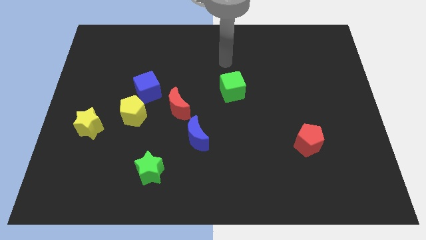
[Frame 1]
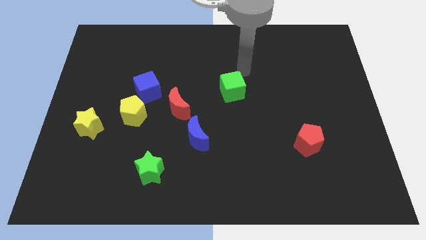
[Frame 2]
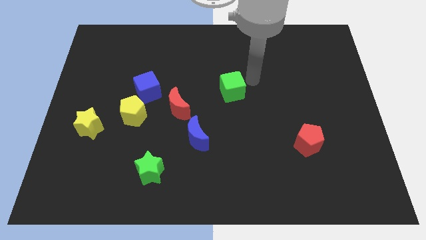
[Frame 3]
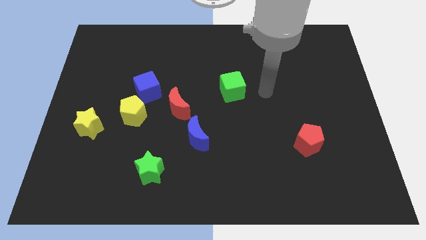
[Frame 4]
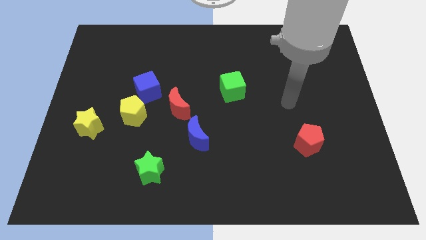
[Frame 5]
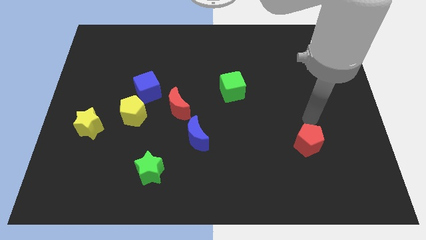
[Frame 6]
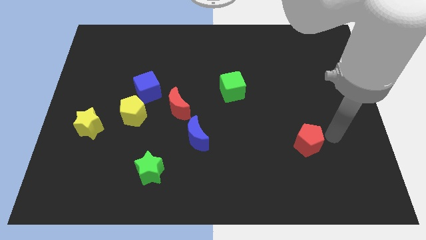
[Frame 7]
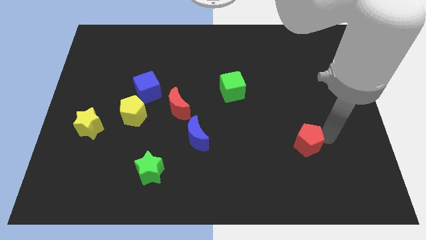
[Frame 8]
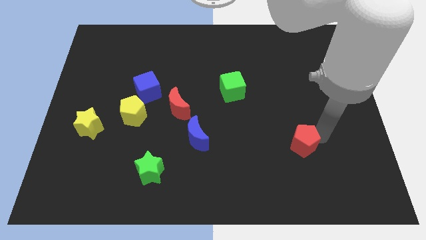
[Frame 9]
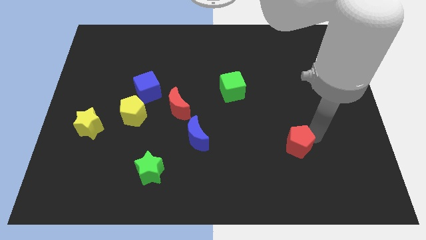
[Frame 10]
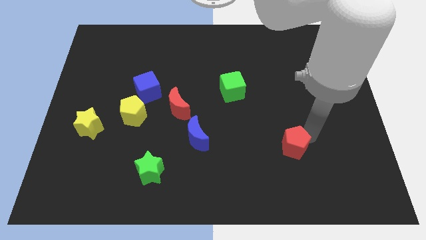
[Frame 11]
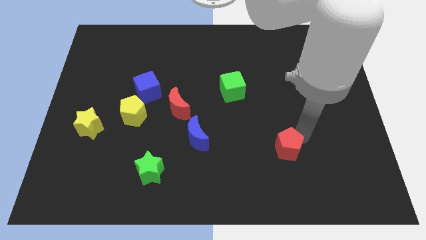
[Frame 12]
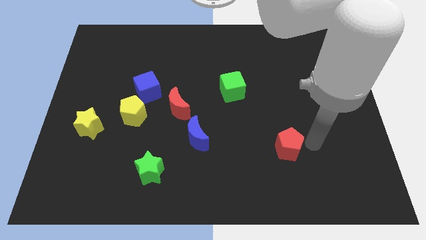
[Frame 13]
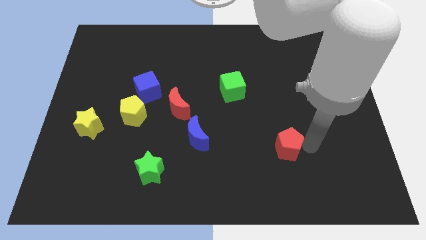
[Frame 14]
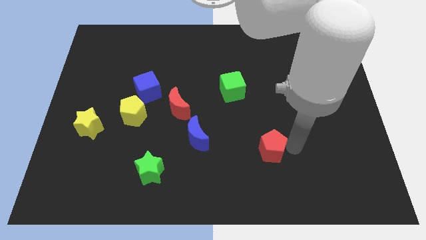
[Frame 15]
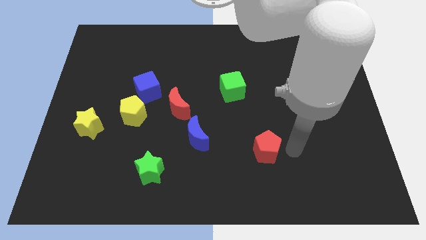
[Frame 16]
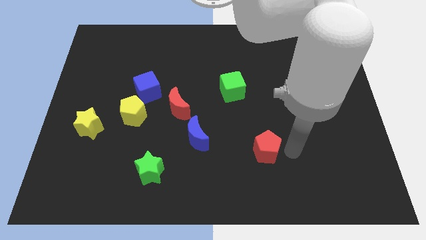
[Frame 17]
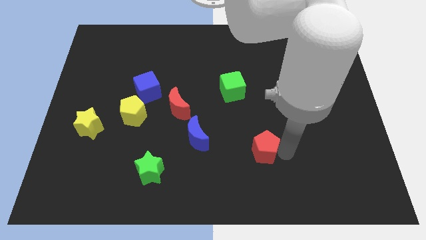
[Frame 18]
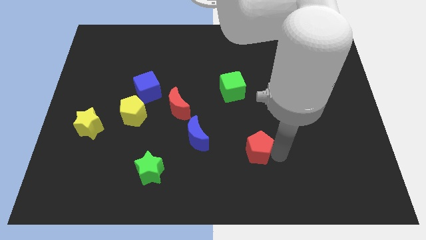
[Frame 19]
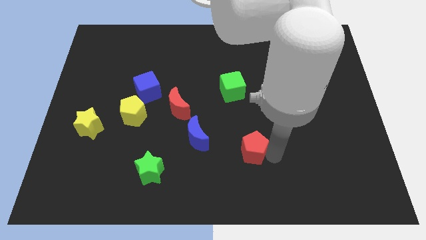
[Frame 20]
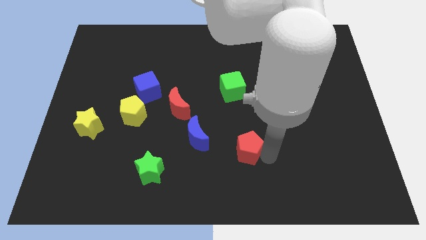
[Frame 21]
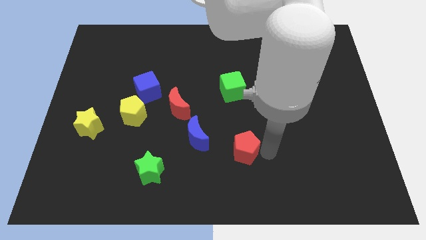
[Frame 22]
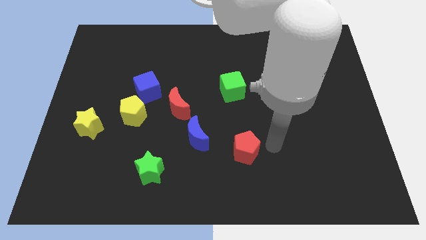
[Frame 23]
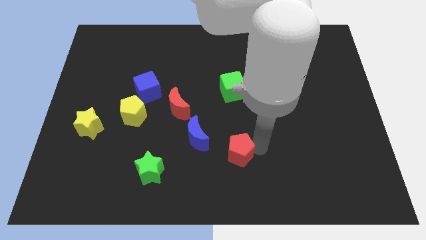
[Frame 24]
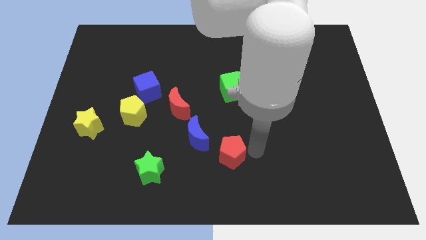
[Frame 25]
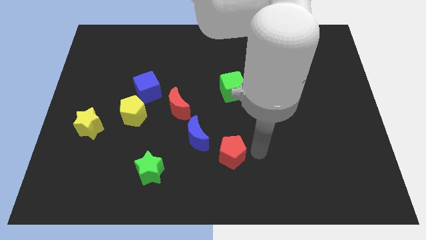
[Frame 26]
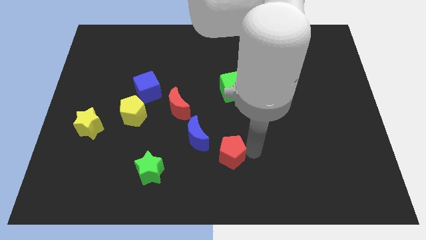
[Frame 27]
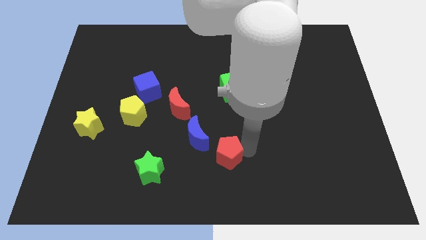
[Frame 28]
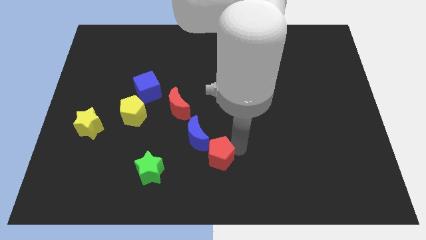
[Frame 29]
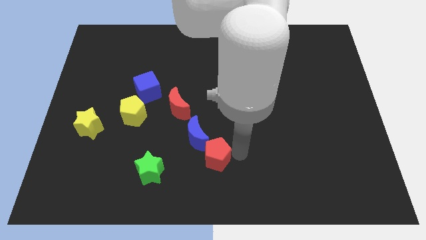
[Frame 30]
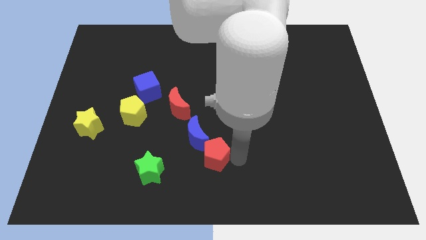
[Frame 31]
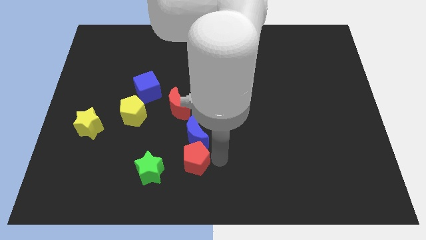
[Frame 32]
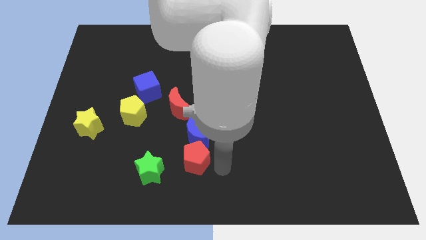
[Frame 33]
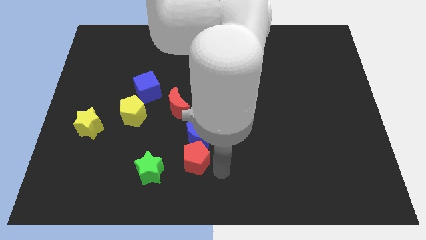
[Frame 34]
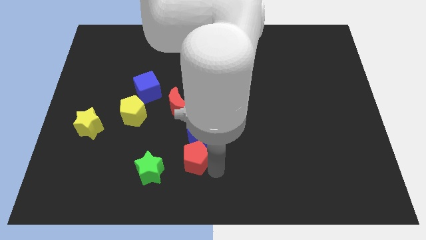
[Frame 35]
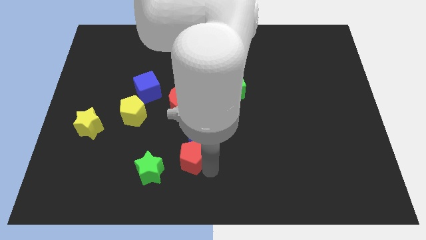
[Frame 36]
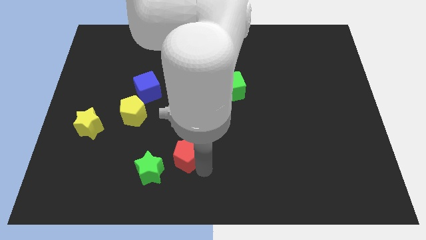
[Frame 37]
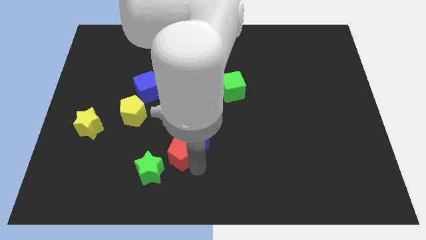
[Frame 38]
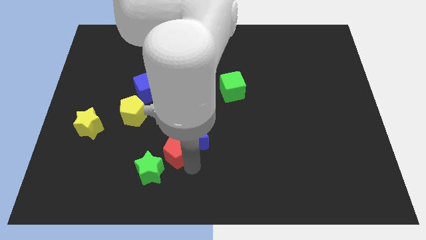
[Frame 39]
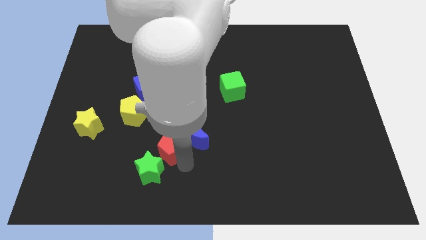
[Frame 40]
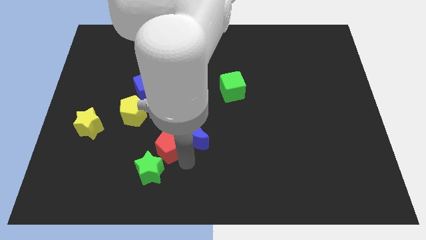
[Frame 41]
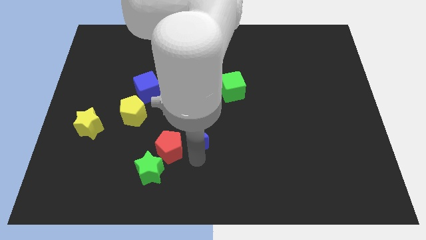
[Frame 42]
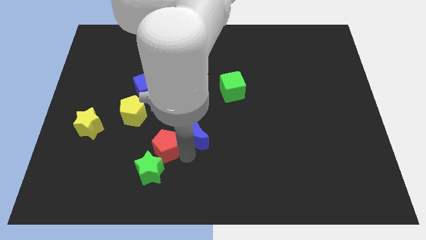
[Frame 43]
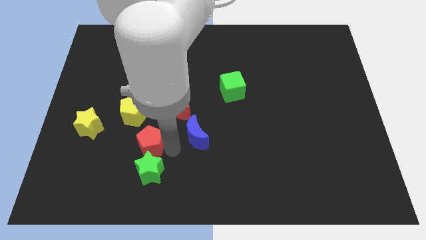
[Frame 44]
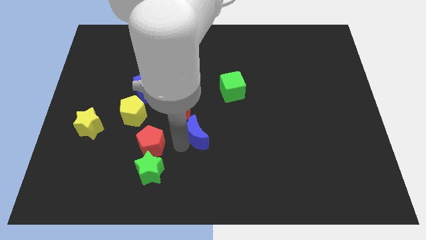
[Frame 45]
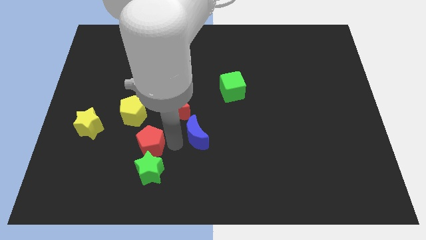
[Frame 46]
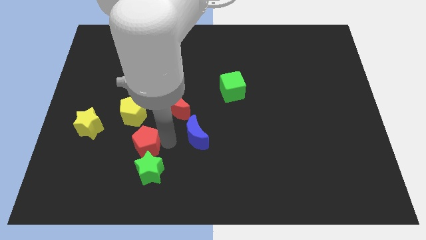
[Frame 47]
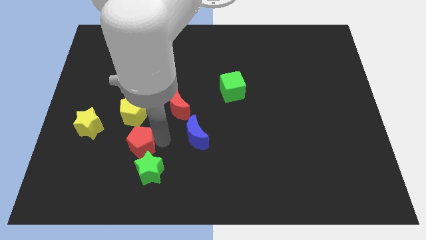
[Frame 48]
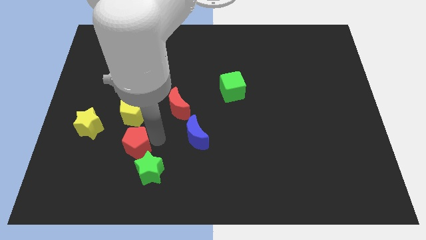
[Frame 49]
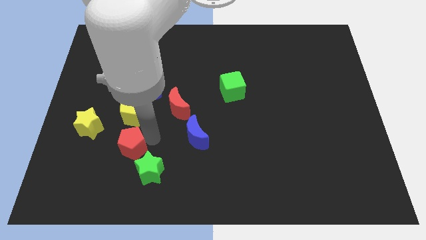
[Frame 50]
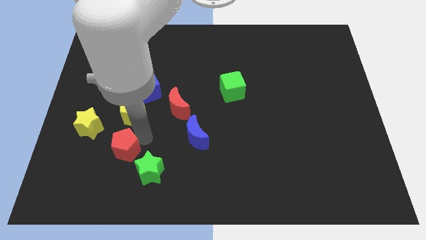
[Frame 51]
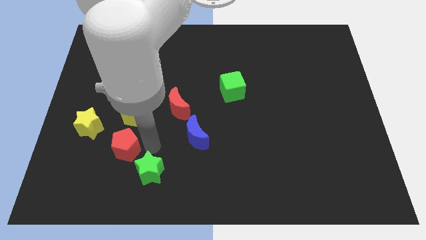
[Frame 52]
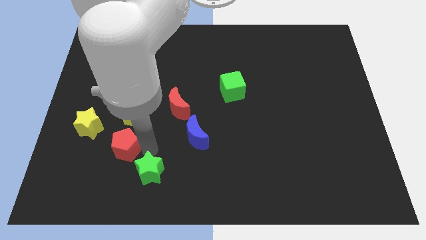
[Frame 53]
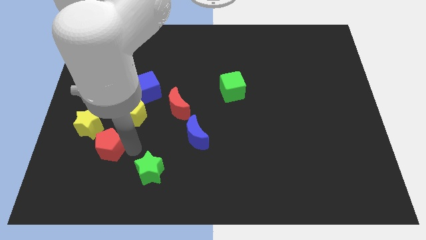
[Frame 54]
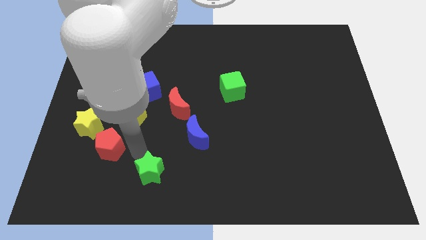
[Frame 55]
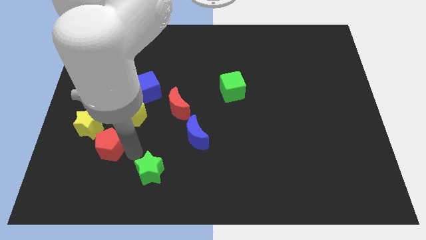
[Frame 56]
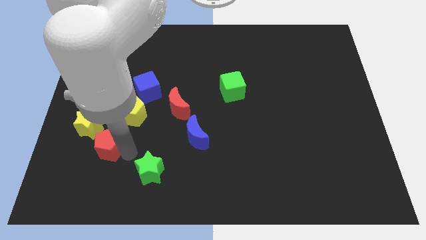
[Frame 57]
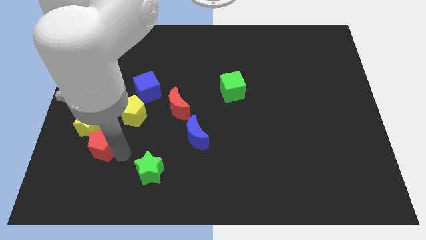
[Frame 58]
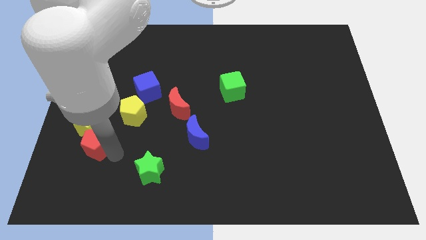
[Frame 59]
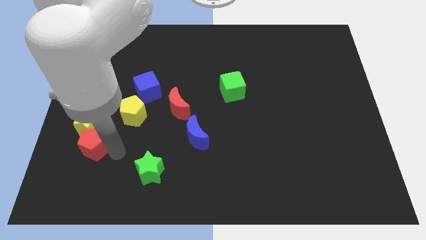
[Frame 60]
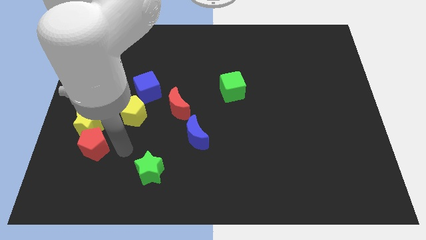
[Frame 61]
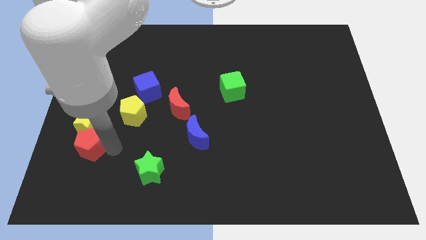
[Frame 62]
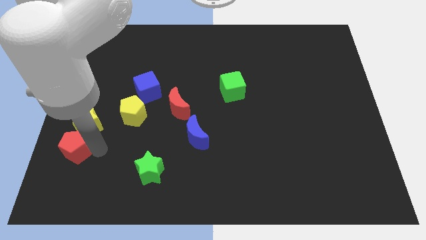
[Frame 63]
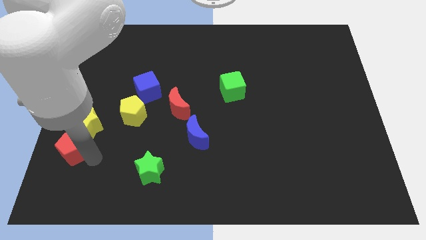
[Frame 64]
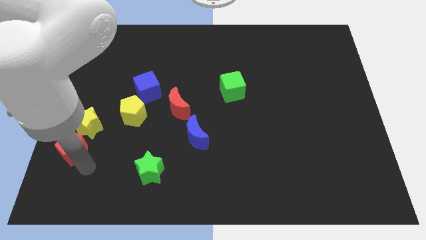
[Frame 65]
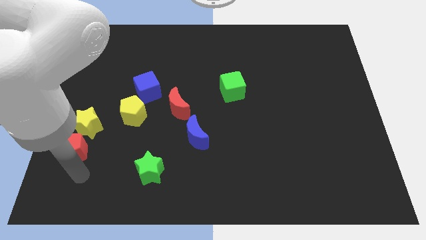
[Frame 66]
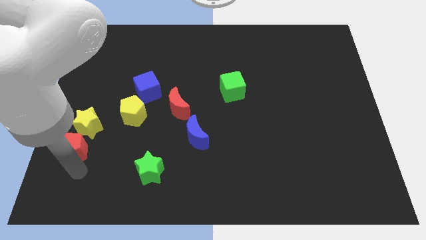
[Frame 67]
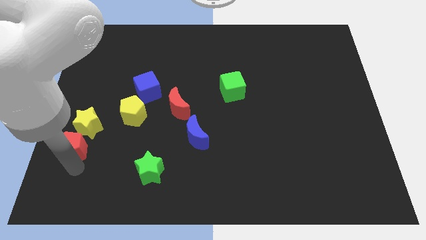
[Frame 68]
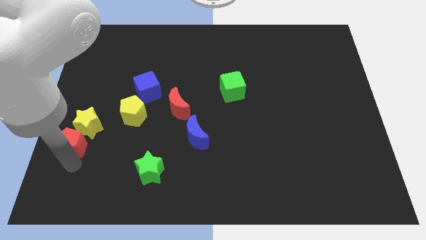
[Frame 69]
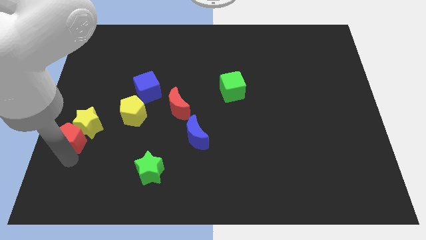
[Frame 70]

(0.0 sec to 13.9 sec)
slide the red pentagon to the left side of the board
